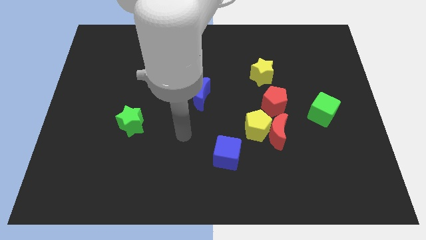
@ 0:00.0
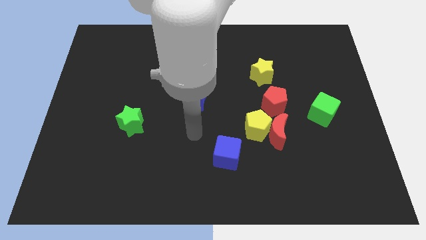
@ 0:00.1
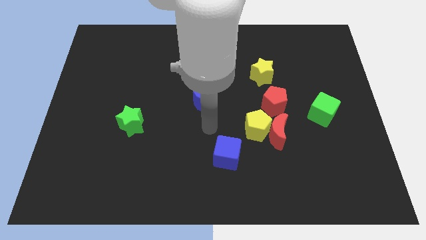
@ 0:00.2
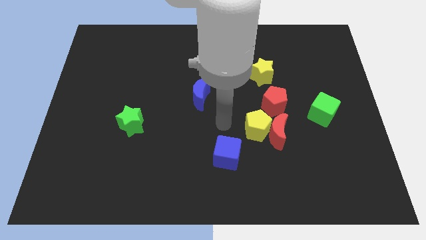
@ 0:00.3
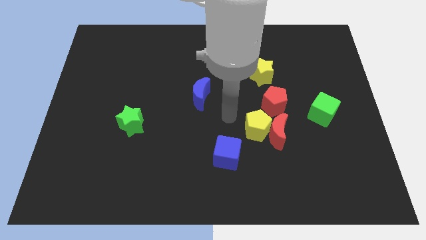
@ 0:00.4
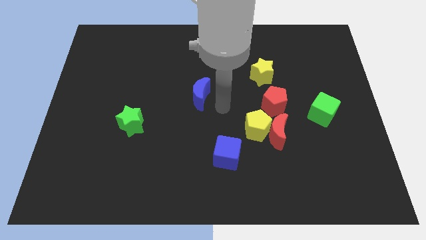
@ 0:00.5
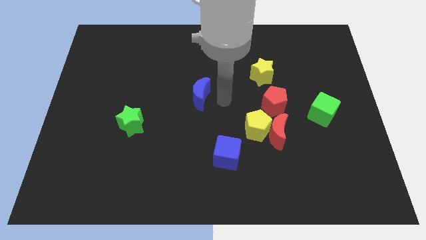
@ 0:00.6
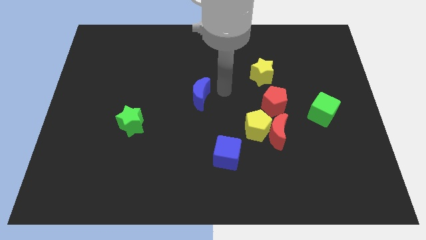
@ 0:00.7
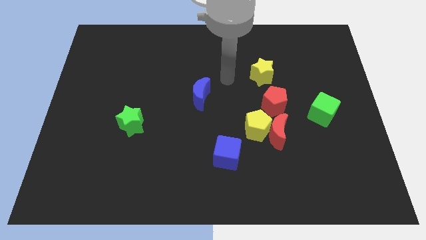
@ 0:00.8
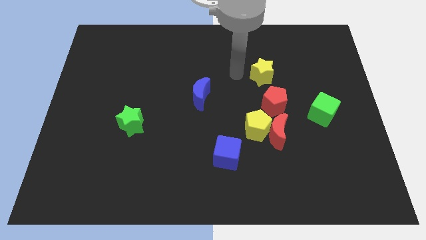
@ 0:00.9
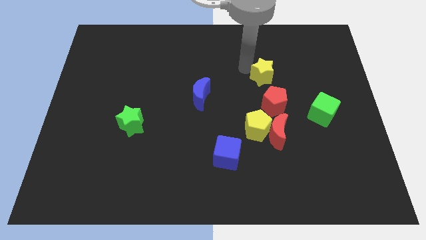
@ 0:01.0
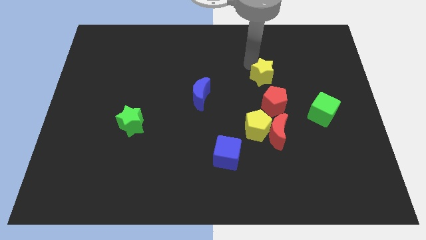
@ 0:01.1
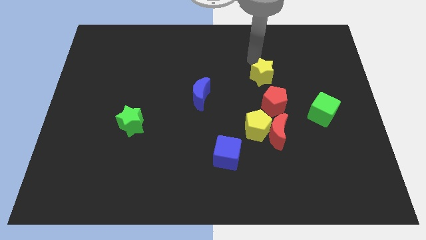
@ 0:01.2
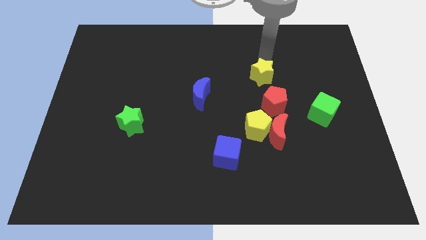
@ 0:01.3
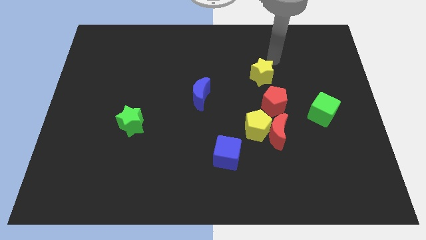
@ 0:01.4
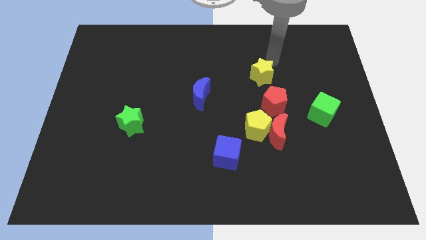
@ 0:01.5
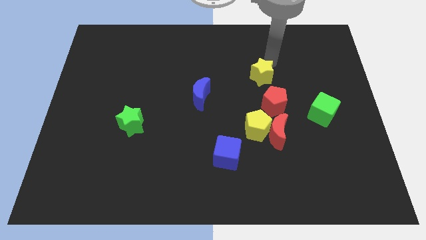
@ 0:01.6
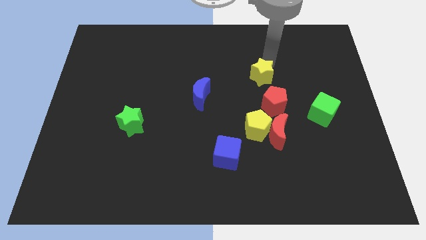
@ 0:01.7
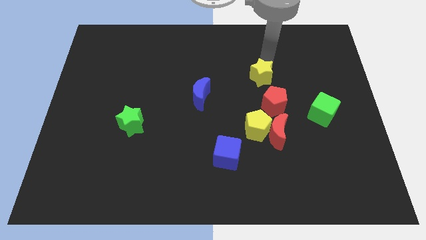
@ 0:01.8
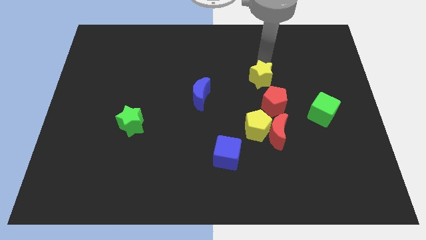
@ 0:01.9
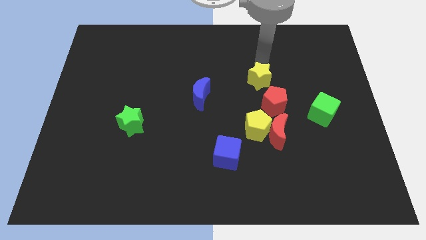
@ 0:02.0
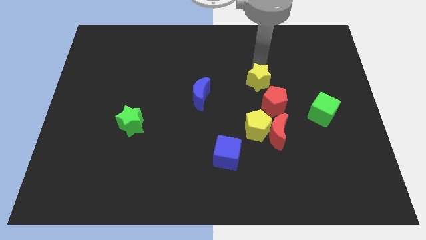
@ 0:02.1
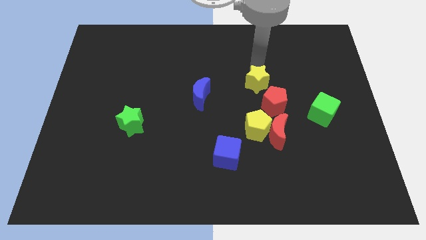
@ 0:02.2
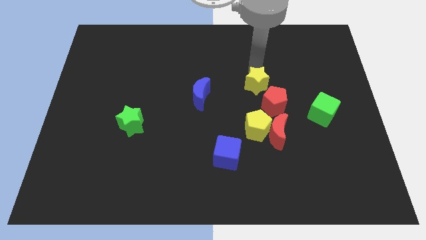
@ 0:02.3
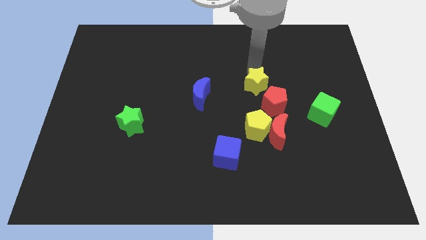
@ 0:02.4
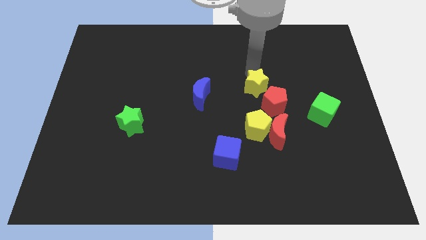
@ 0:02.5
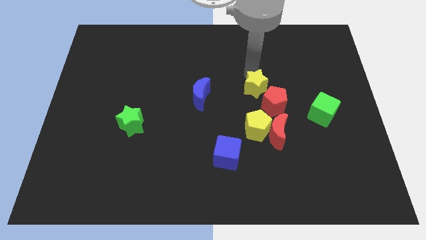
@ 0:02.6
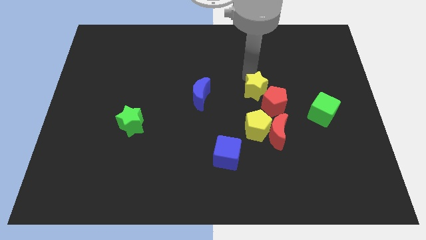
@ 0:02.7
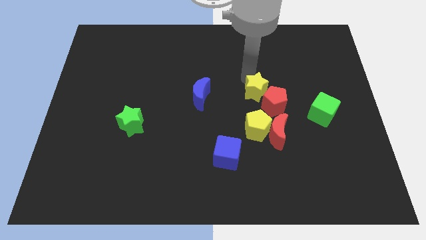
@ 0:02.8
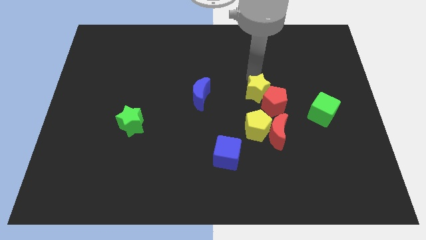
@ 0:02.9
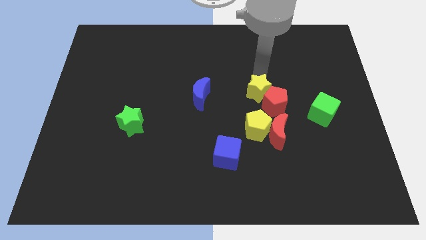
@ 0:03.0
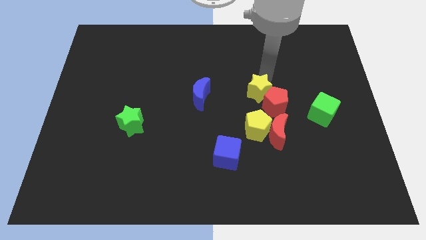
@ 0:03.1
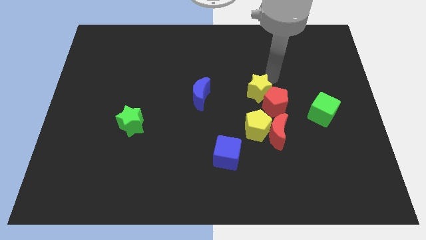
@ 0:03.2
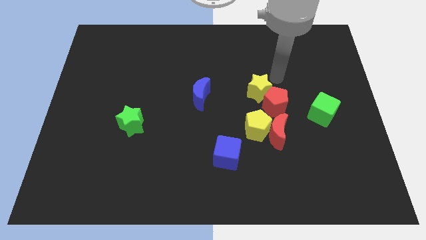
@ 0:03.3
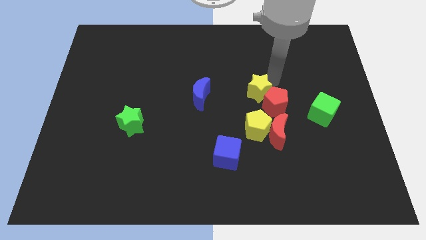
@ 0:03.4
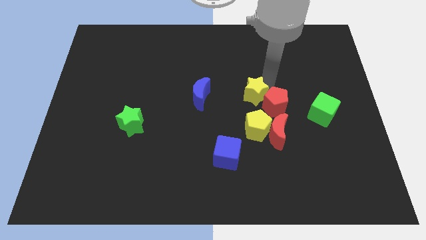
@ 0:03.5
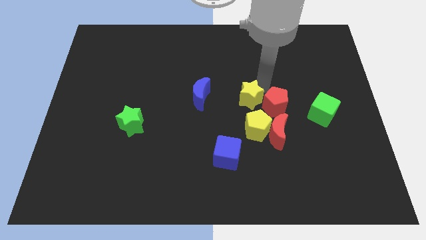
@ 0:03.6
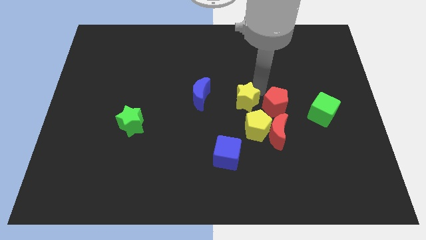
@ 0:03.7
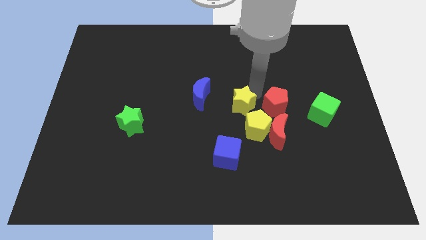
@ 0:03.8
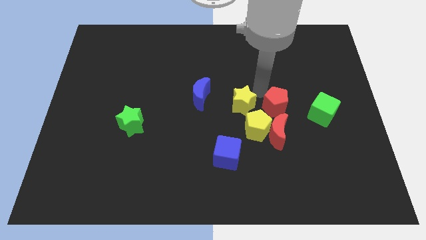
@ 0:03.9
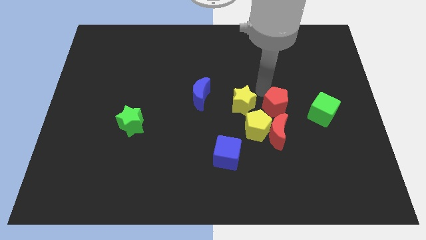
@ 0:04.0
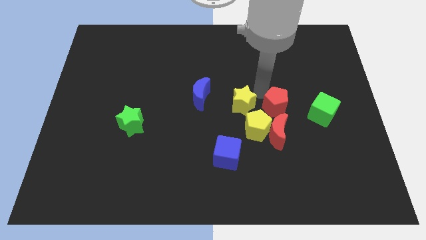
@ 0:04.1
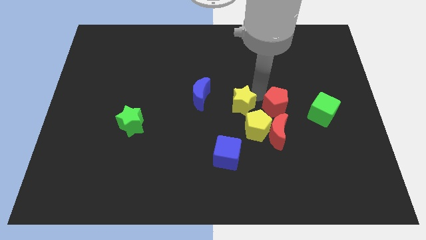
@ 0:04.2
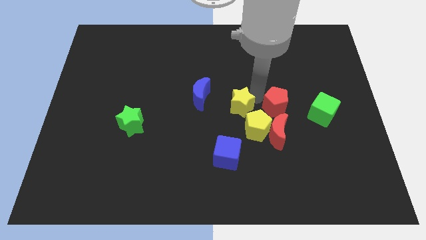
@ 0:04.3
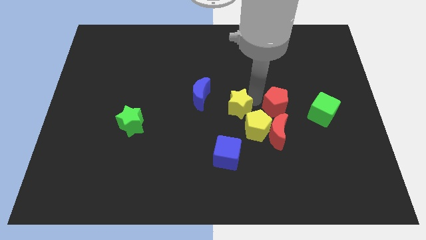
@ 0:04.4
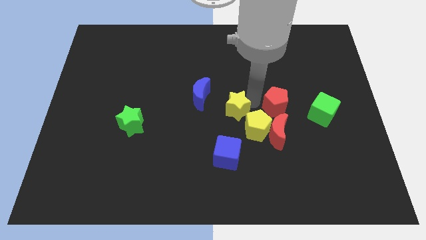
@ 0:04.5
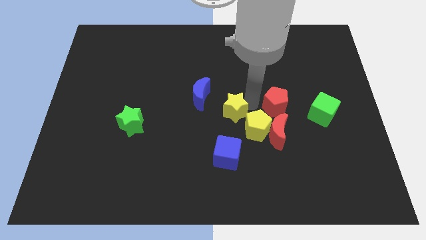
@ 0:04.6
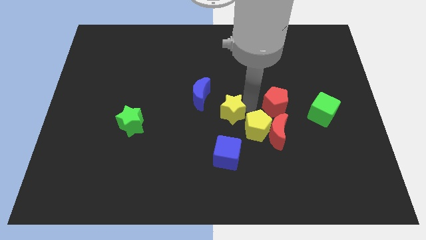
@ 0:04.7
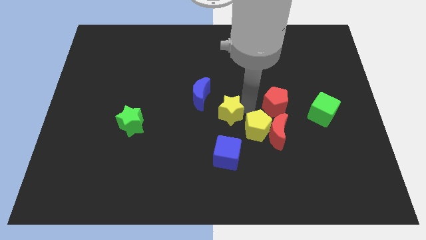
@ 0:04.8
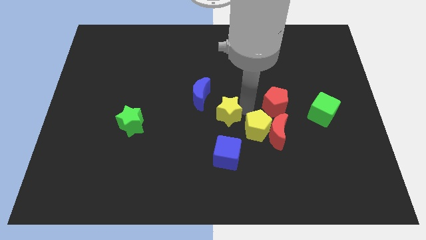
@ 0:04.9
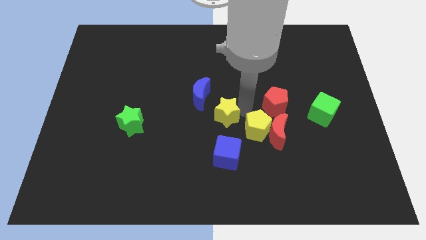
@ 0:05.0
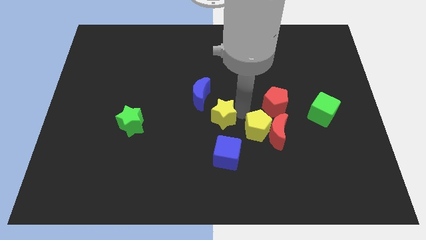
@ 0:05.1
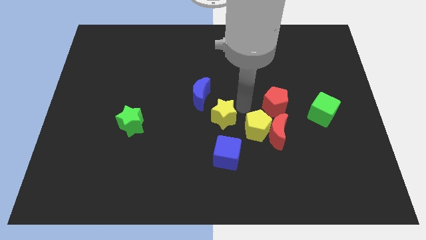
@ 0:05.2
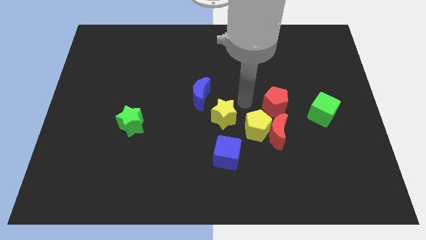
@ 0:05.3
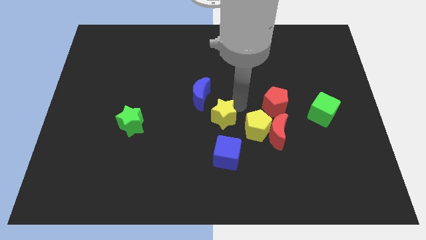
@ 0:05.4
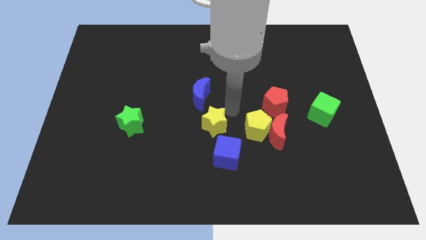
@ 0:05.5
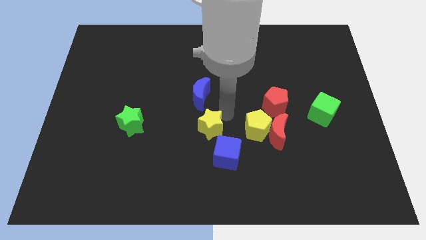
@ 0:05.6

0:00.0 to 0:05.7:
slide the yellow star diagonally downwards and left

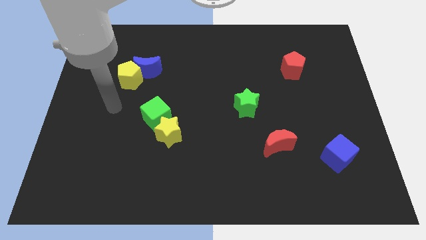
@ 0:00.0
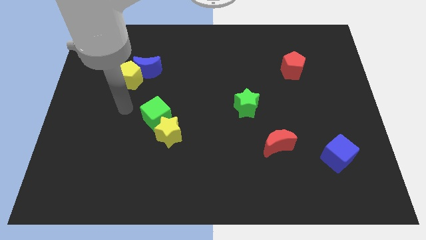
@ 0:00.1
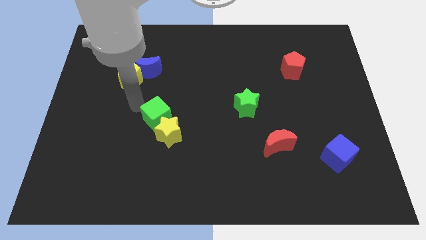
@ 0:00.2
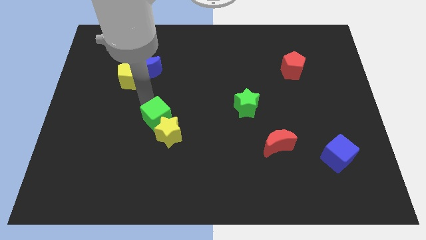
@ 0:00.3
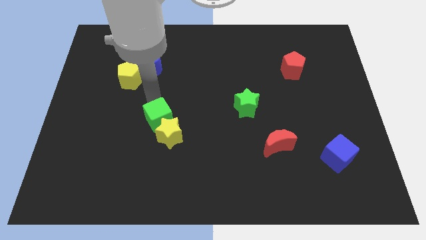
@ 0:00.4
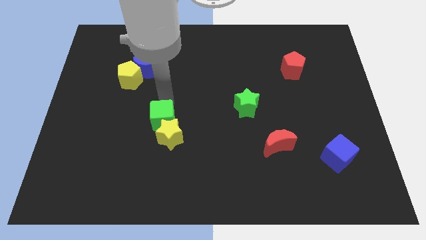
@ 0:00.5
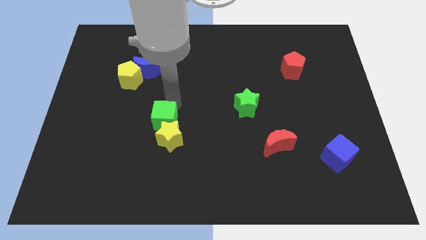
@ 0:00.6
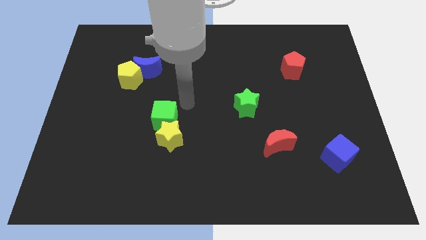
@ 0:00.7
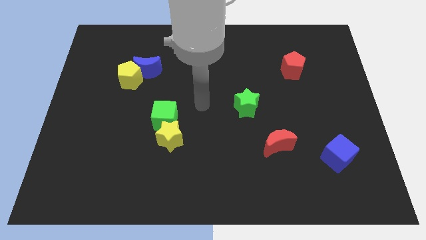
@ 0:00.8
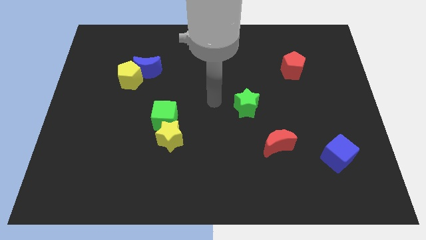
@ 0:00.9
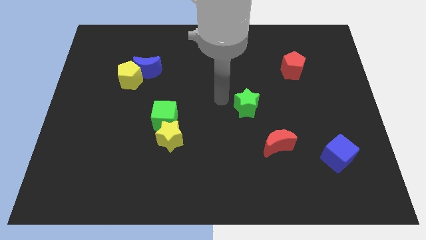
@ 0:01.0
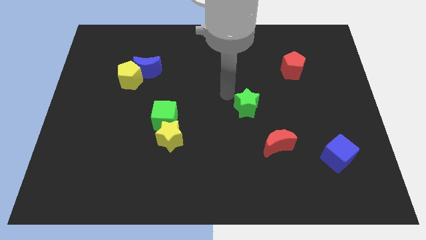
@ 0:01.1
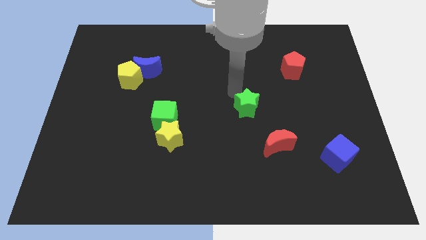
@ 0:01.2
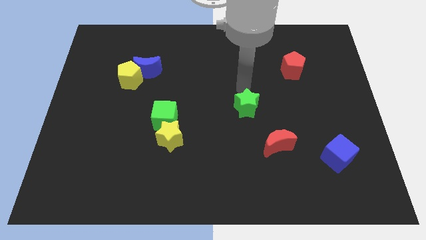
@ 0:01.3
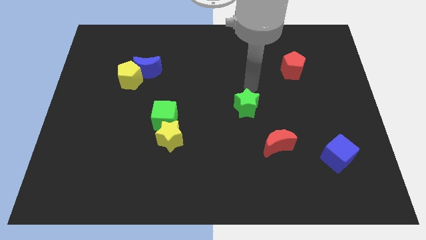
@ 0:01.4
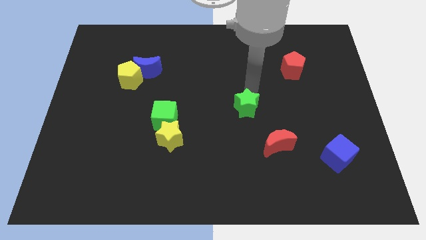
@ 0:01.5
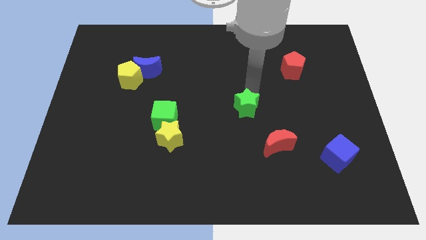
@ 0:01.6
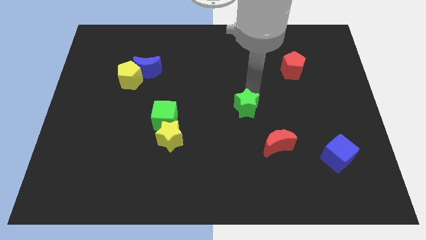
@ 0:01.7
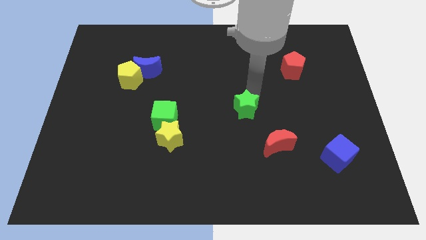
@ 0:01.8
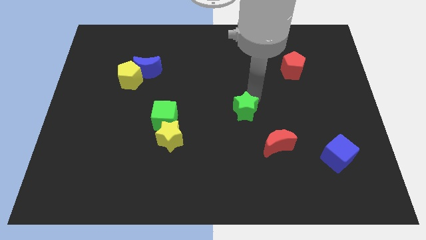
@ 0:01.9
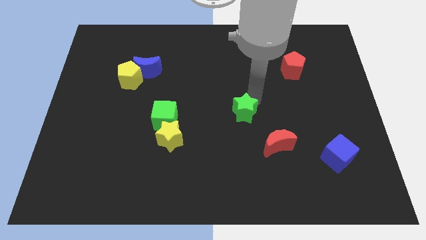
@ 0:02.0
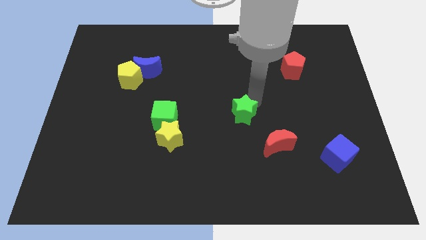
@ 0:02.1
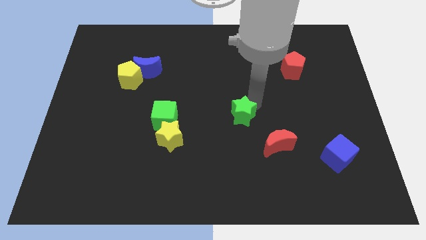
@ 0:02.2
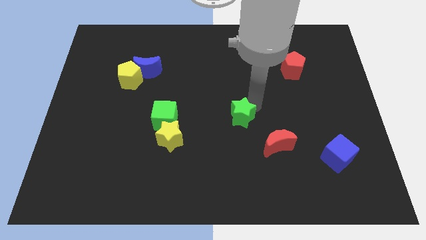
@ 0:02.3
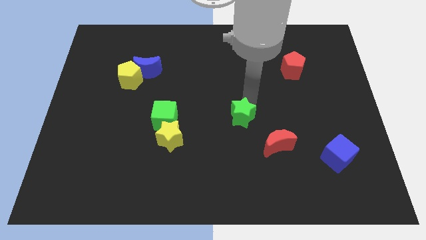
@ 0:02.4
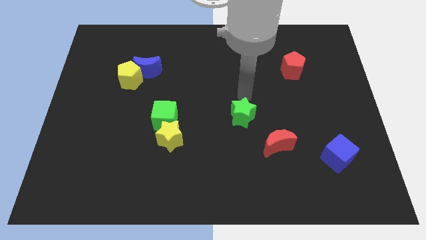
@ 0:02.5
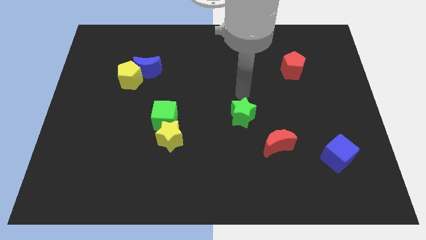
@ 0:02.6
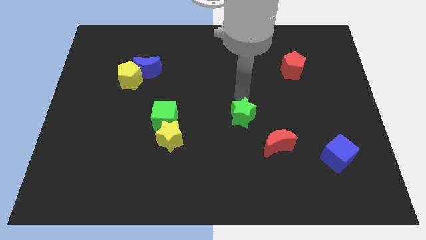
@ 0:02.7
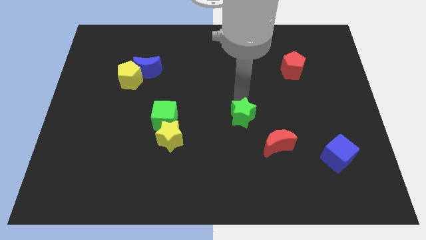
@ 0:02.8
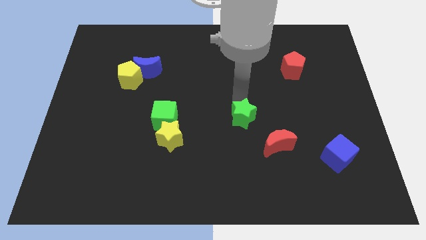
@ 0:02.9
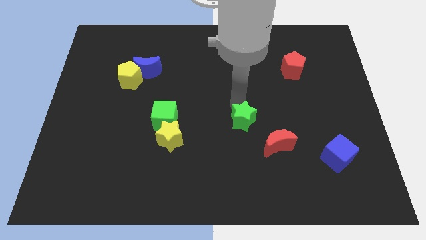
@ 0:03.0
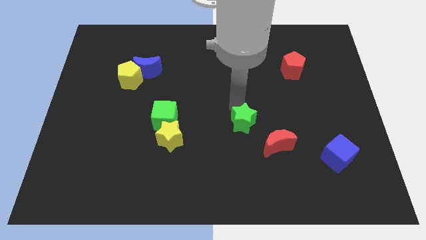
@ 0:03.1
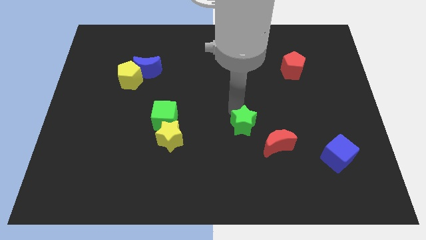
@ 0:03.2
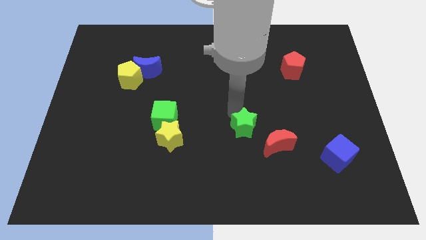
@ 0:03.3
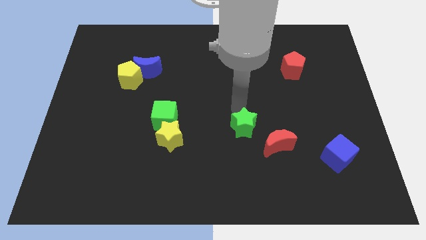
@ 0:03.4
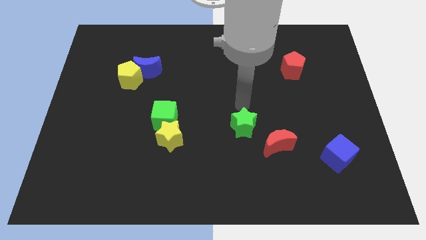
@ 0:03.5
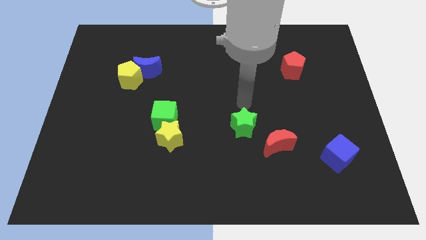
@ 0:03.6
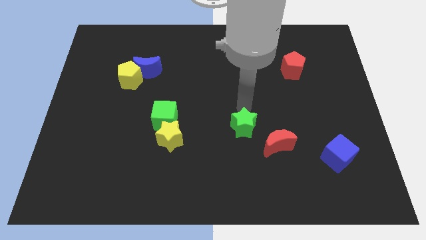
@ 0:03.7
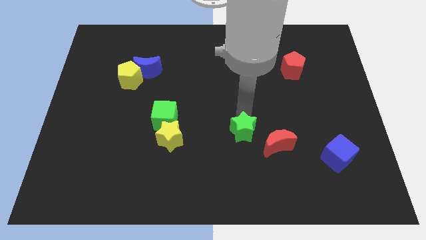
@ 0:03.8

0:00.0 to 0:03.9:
slightly move the green star downwards
